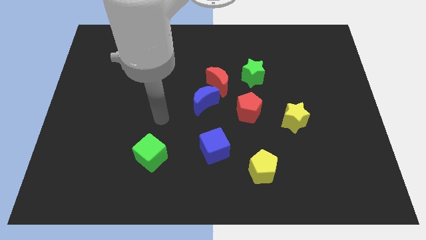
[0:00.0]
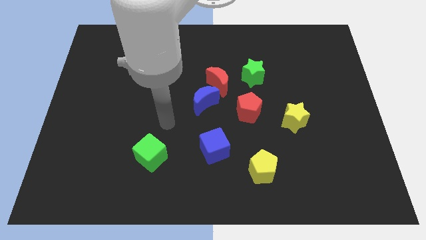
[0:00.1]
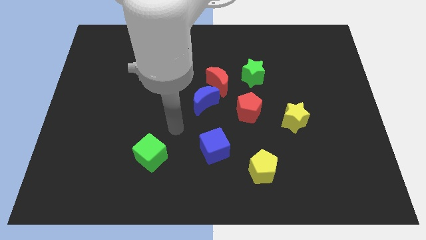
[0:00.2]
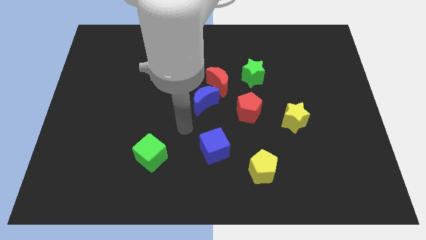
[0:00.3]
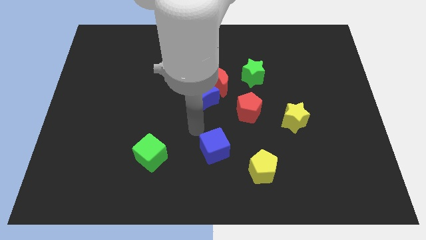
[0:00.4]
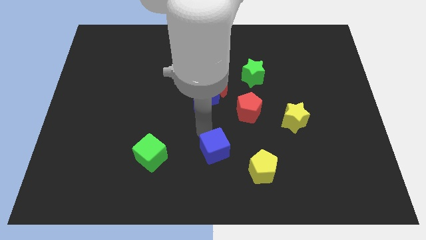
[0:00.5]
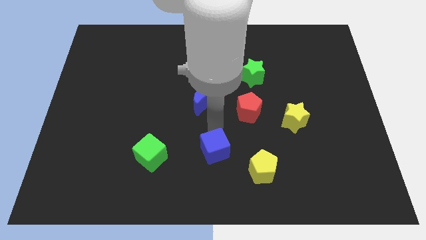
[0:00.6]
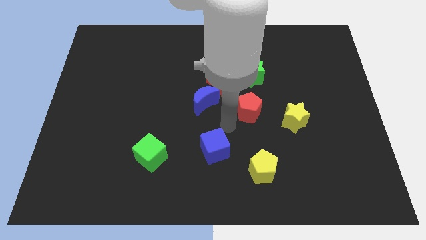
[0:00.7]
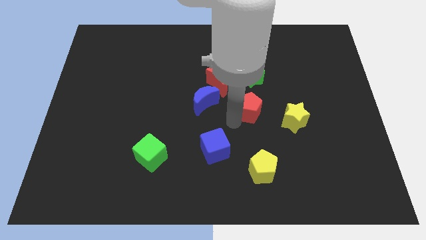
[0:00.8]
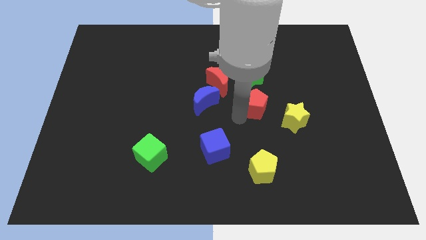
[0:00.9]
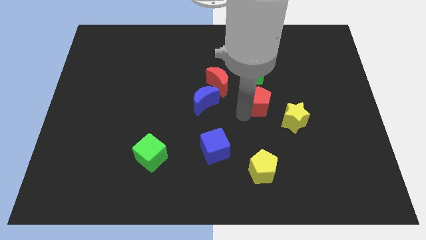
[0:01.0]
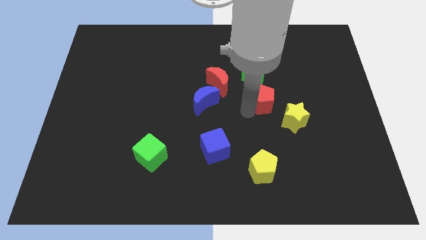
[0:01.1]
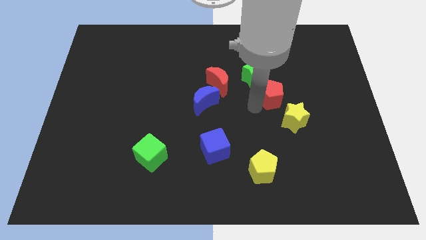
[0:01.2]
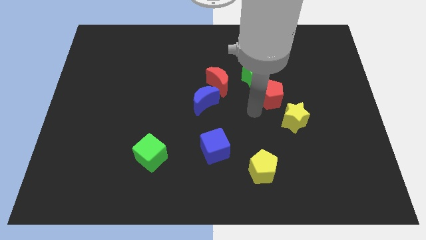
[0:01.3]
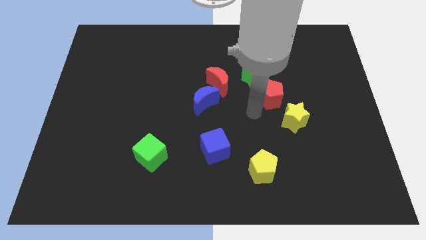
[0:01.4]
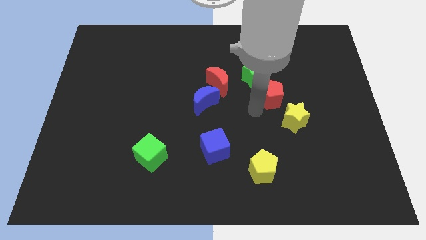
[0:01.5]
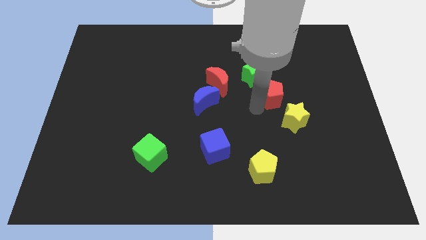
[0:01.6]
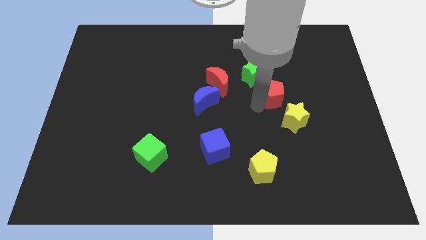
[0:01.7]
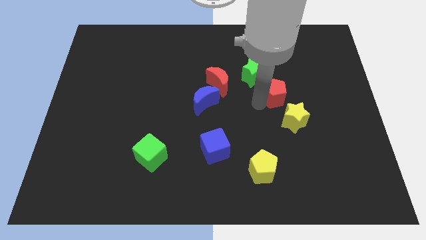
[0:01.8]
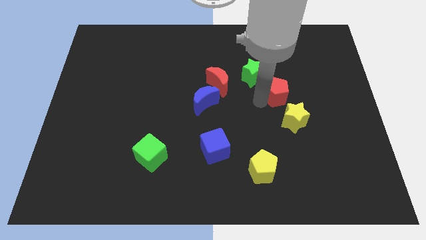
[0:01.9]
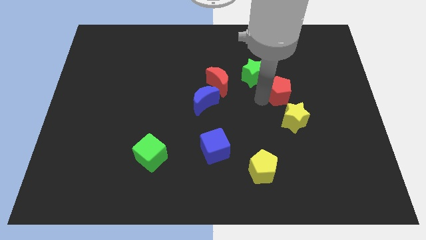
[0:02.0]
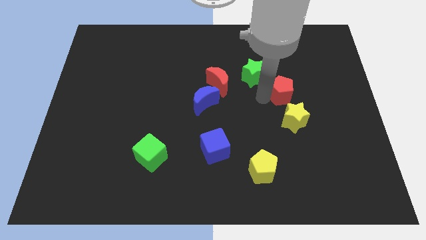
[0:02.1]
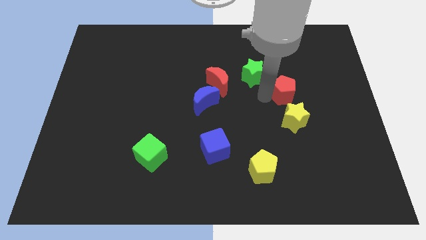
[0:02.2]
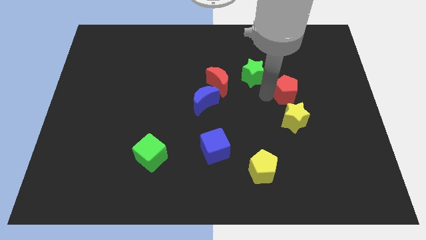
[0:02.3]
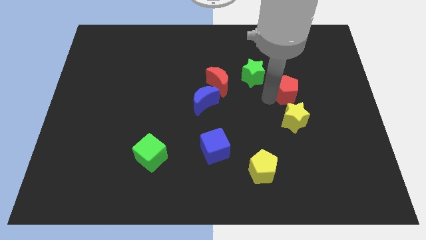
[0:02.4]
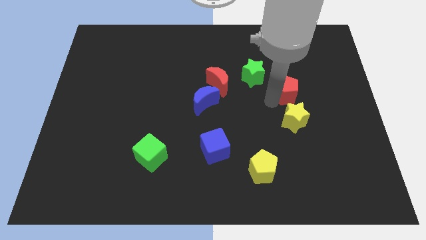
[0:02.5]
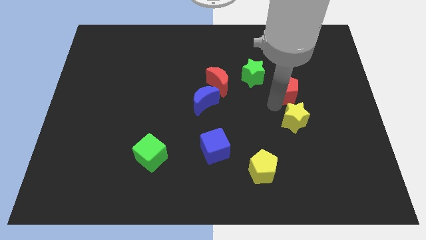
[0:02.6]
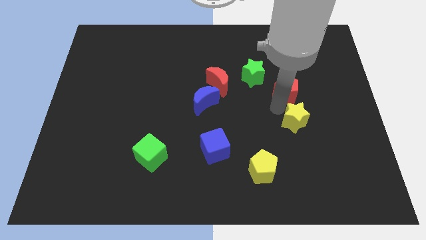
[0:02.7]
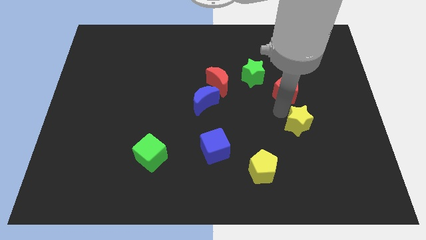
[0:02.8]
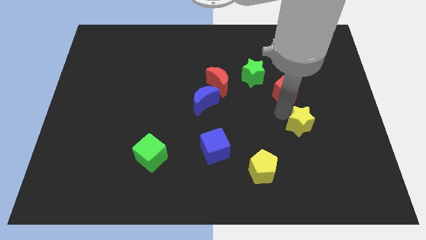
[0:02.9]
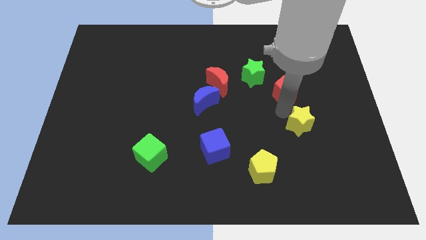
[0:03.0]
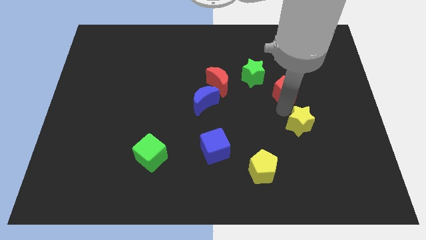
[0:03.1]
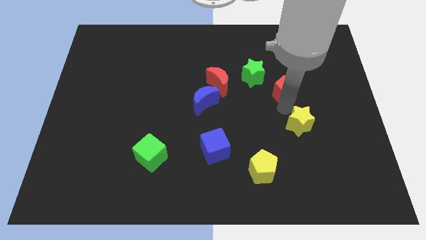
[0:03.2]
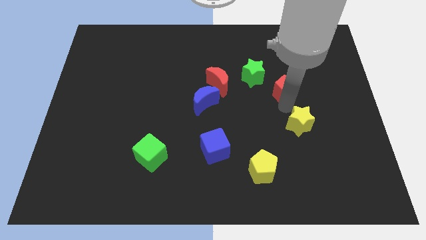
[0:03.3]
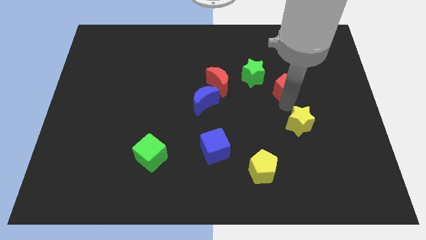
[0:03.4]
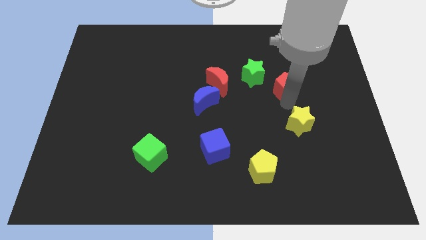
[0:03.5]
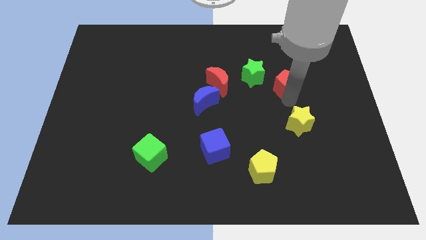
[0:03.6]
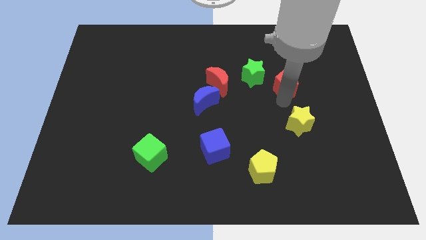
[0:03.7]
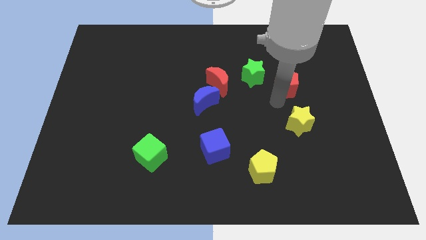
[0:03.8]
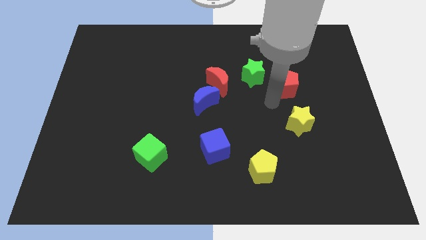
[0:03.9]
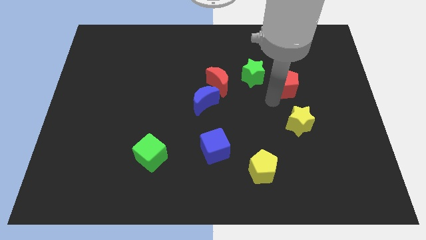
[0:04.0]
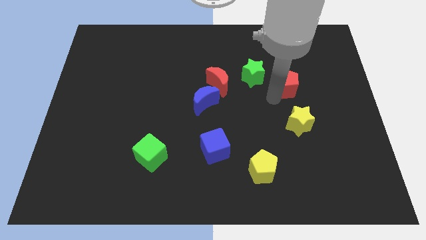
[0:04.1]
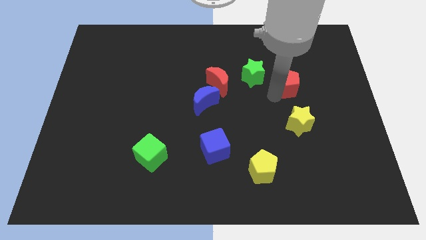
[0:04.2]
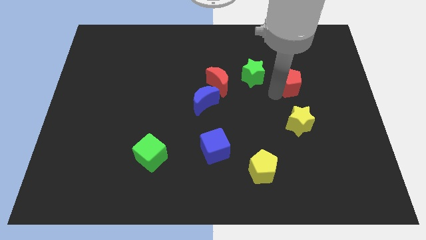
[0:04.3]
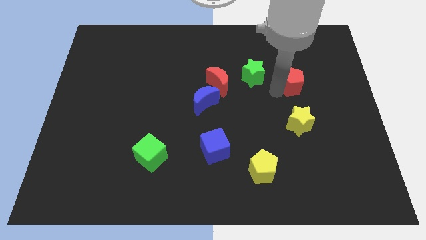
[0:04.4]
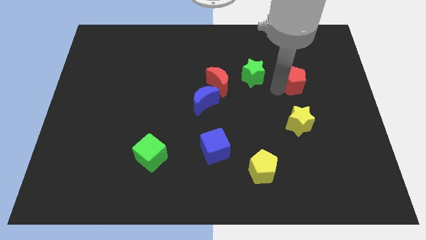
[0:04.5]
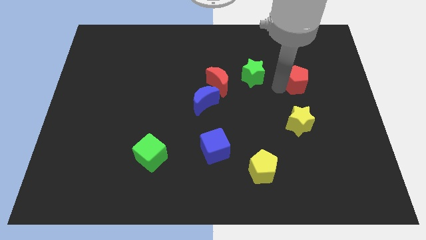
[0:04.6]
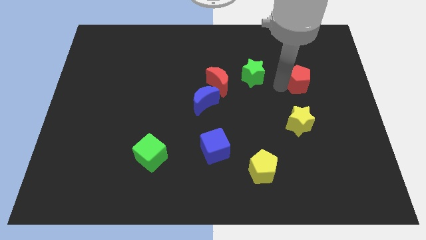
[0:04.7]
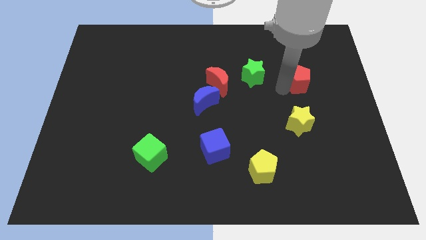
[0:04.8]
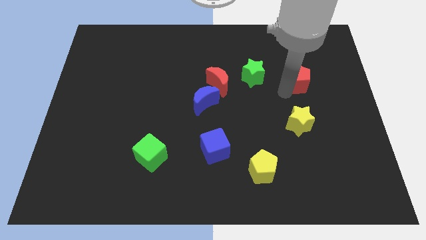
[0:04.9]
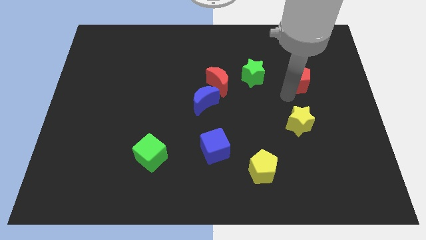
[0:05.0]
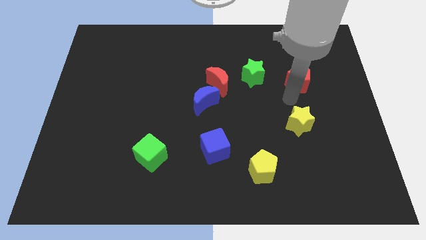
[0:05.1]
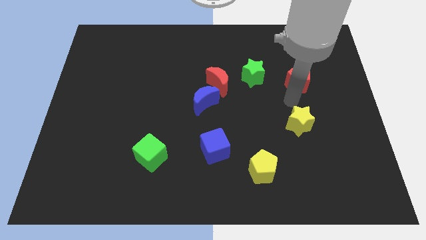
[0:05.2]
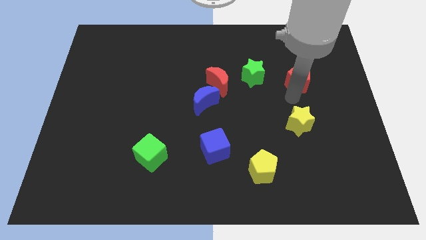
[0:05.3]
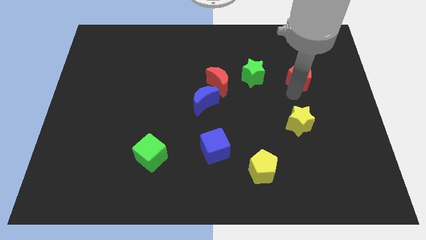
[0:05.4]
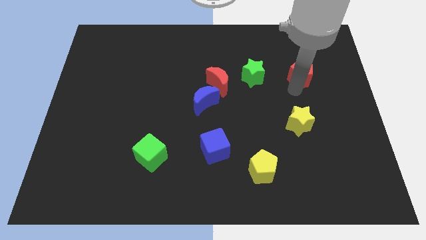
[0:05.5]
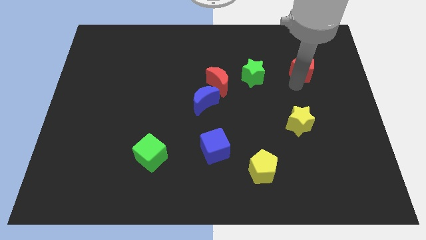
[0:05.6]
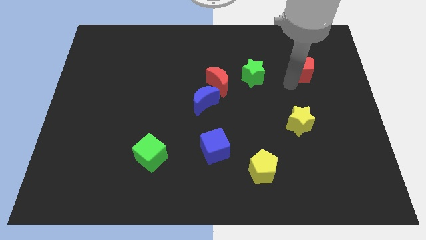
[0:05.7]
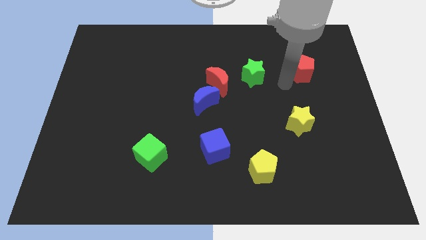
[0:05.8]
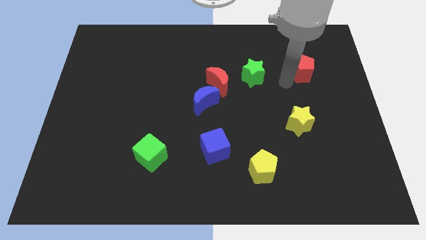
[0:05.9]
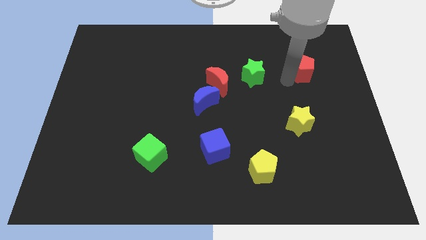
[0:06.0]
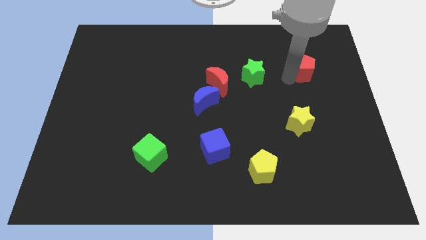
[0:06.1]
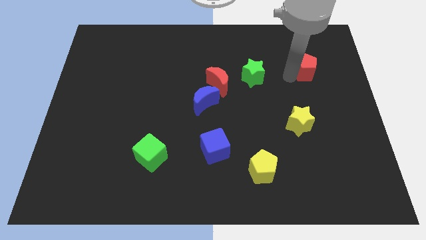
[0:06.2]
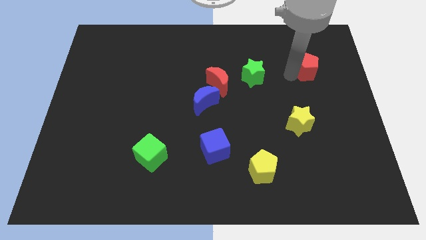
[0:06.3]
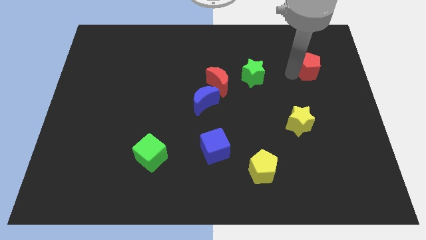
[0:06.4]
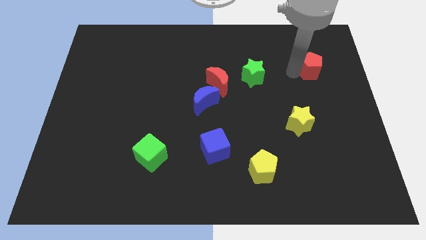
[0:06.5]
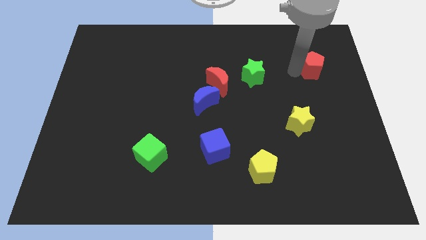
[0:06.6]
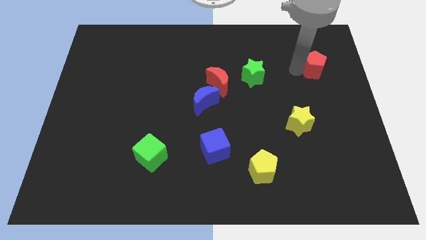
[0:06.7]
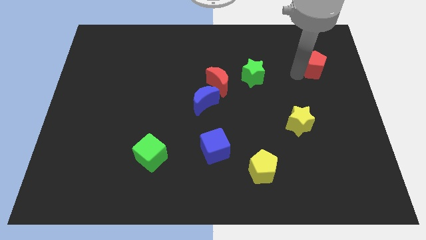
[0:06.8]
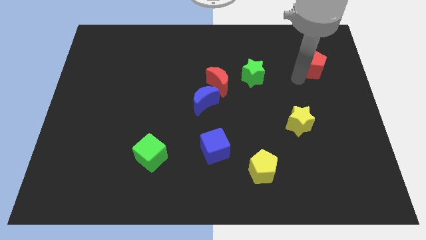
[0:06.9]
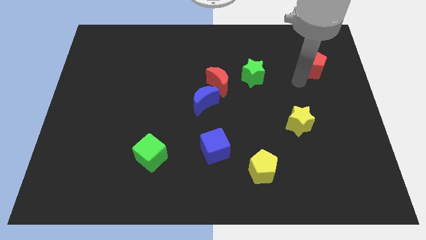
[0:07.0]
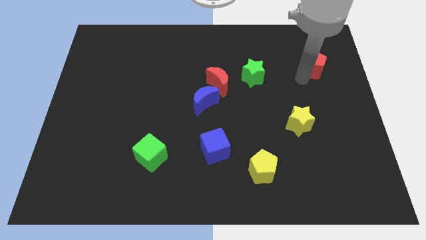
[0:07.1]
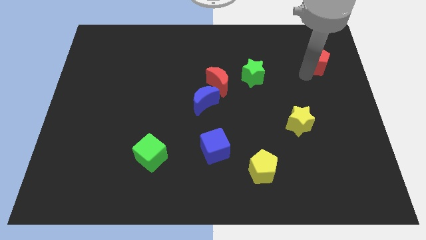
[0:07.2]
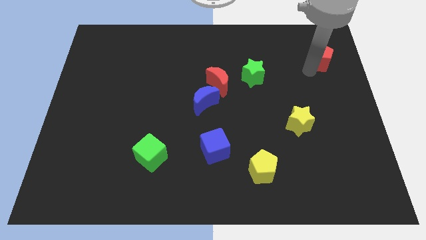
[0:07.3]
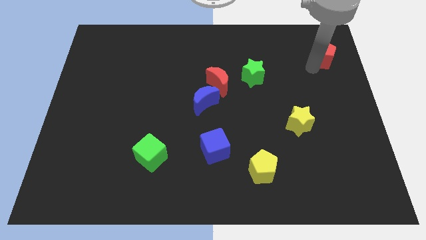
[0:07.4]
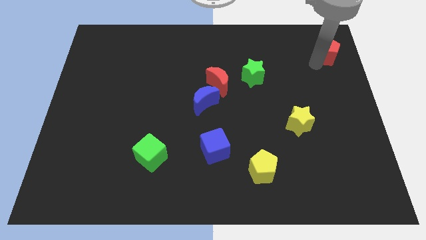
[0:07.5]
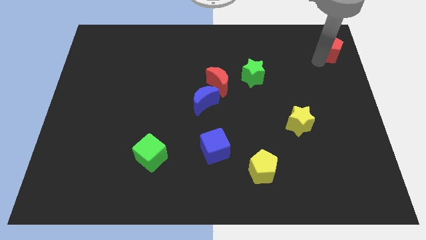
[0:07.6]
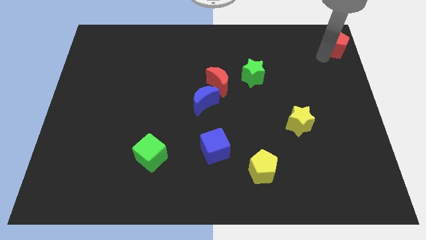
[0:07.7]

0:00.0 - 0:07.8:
put the red pentagon to the upper right corner
